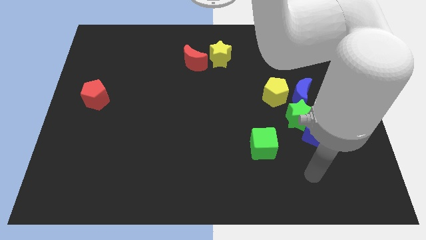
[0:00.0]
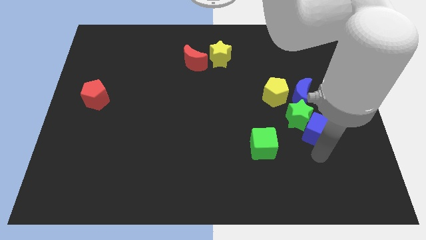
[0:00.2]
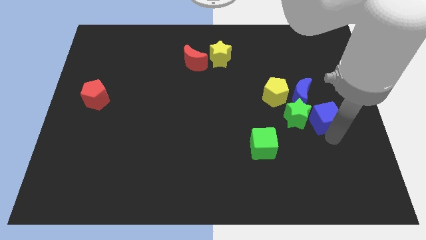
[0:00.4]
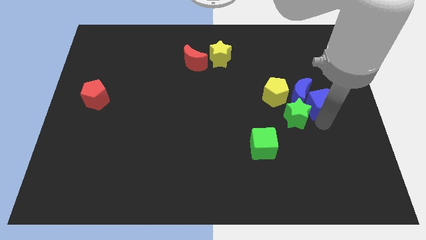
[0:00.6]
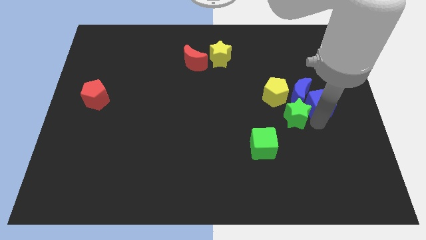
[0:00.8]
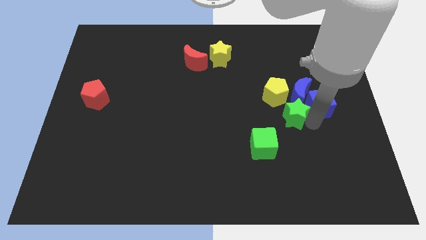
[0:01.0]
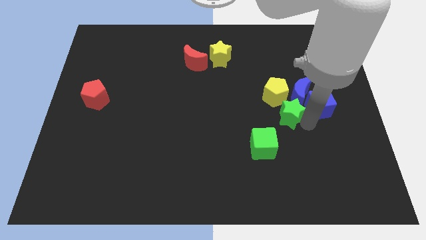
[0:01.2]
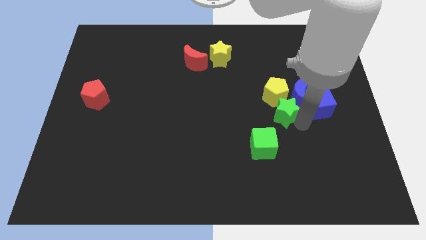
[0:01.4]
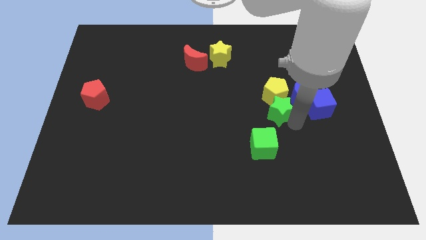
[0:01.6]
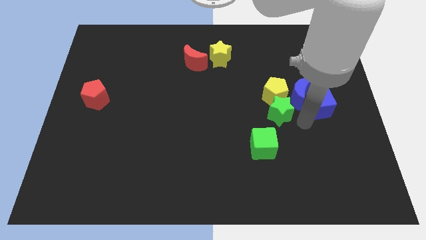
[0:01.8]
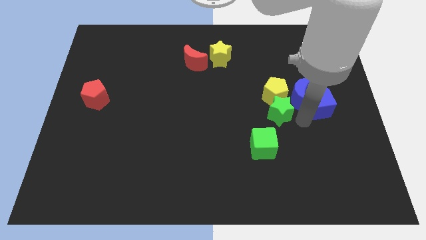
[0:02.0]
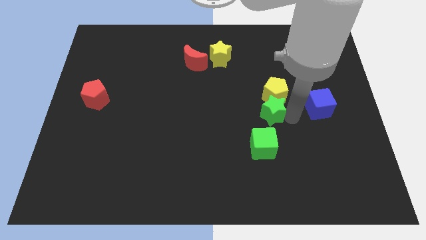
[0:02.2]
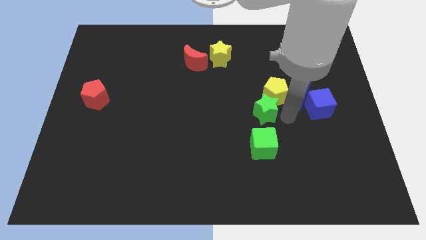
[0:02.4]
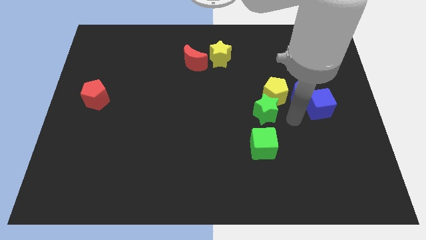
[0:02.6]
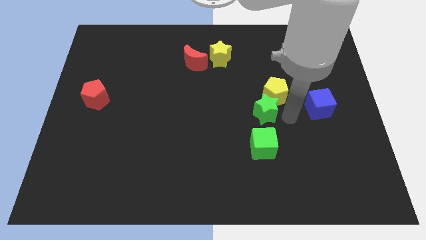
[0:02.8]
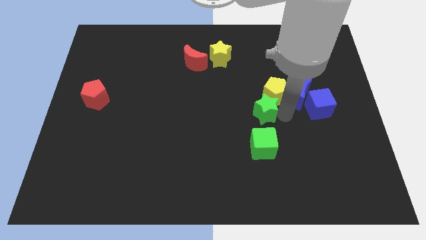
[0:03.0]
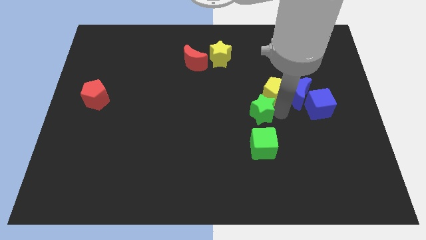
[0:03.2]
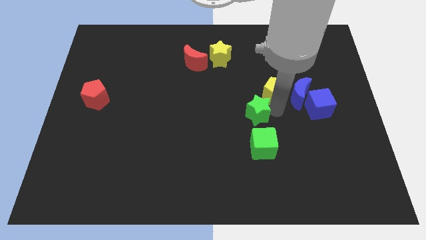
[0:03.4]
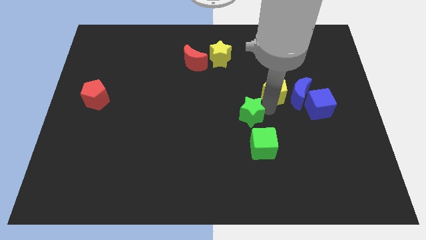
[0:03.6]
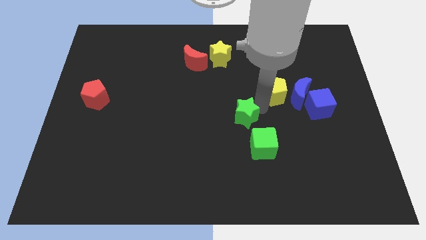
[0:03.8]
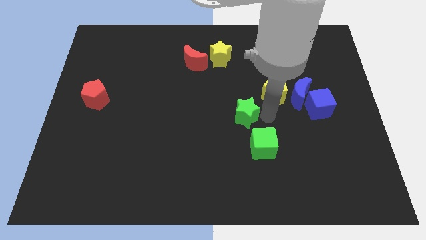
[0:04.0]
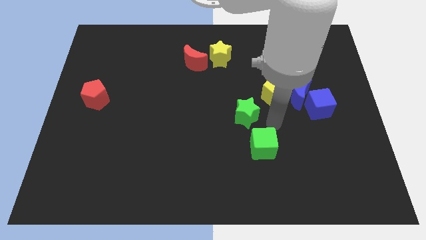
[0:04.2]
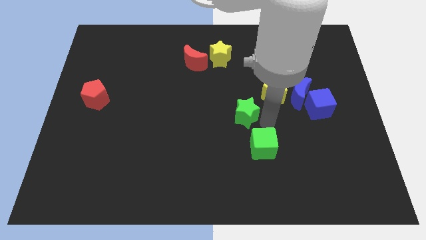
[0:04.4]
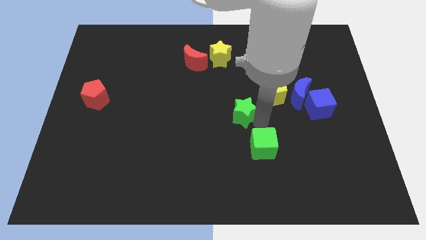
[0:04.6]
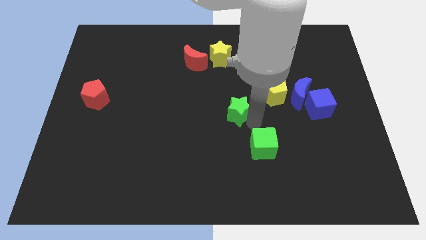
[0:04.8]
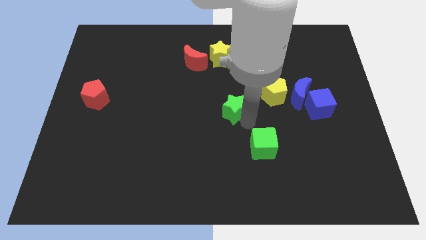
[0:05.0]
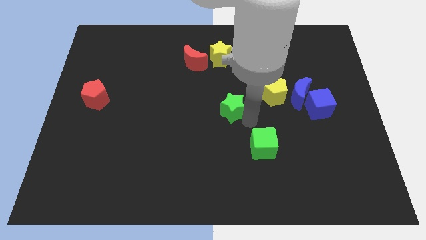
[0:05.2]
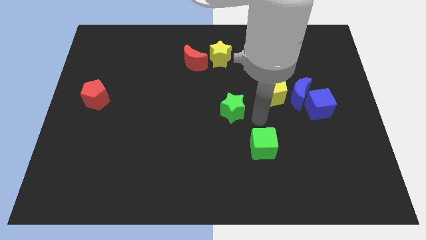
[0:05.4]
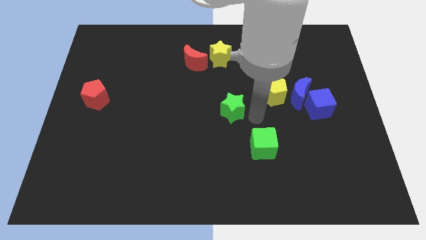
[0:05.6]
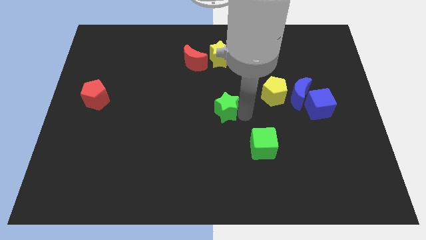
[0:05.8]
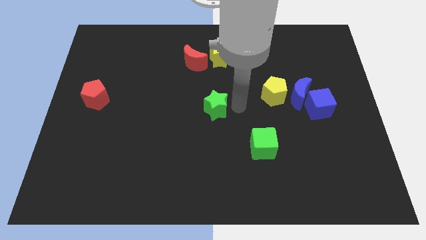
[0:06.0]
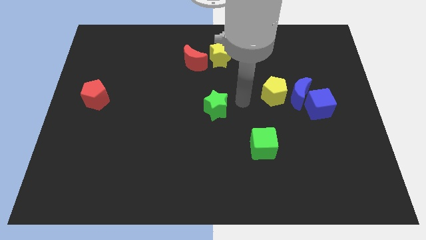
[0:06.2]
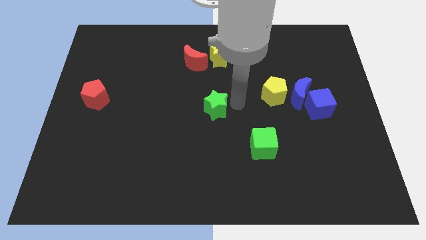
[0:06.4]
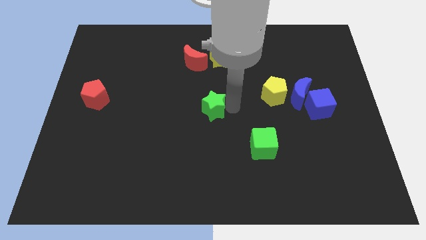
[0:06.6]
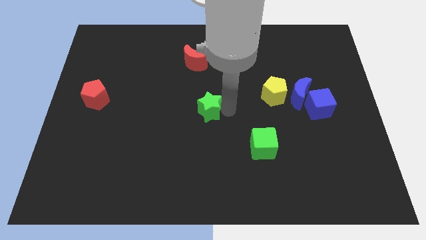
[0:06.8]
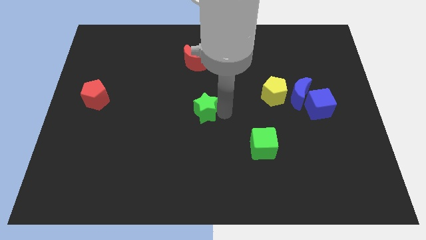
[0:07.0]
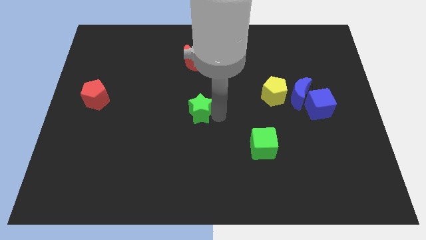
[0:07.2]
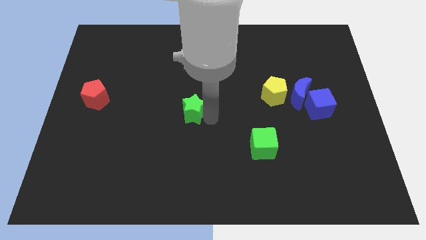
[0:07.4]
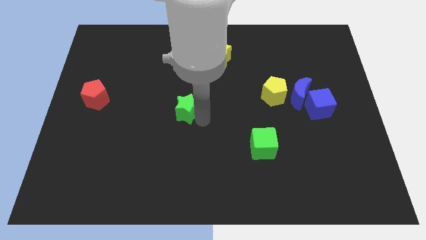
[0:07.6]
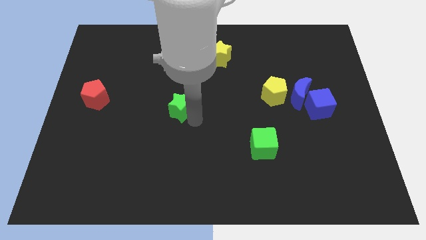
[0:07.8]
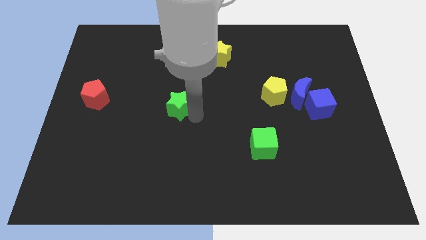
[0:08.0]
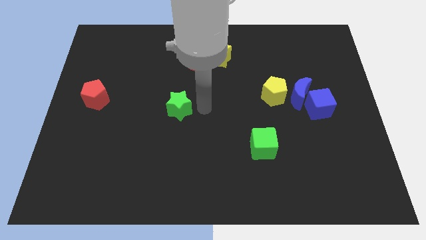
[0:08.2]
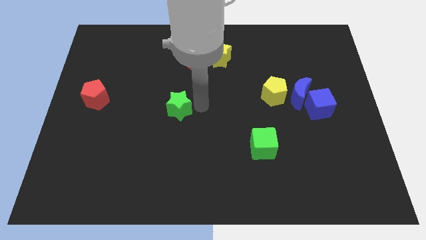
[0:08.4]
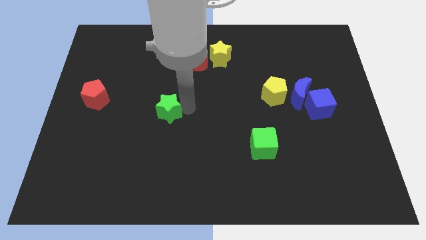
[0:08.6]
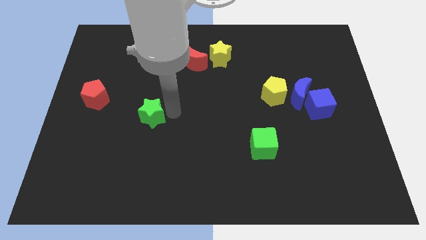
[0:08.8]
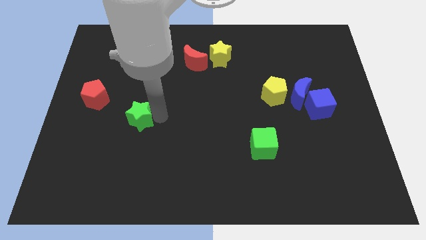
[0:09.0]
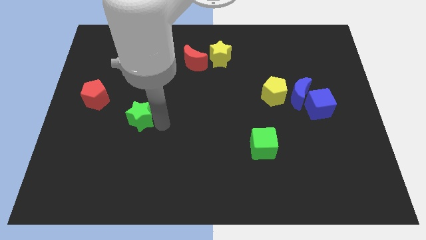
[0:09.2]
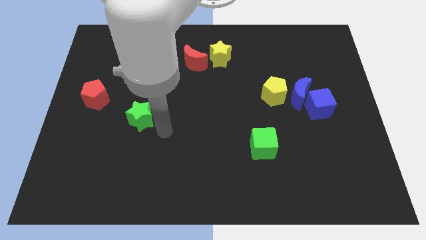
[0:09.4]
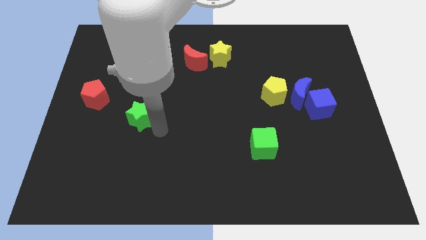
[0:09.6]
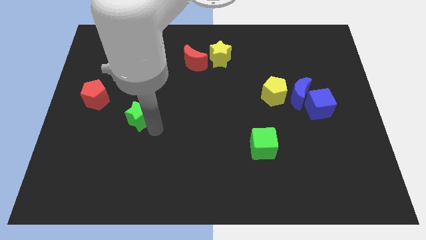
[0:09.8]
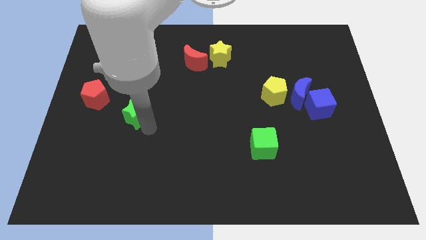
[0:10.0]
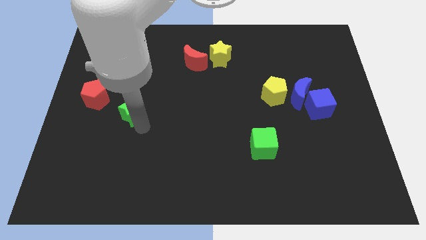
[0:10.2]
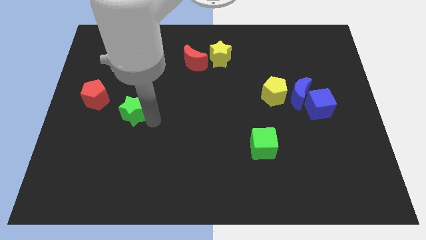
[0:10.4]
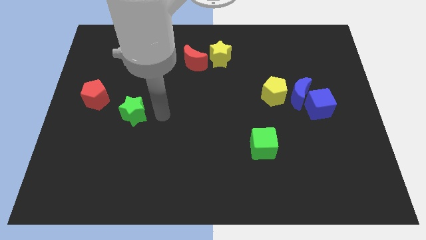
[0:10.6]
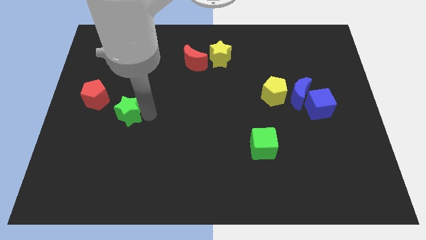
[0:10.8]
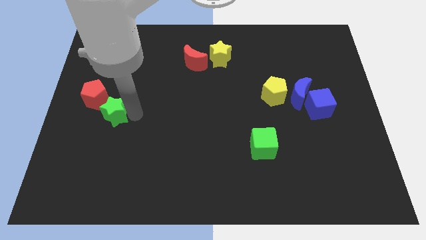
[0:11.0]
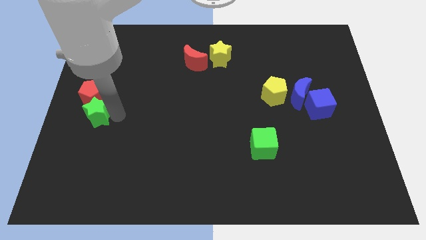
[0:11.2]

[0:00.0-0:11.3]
slide the green star to the center left

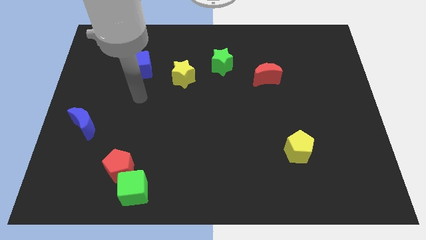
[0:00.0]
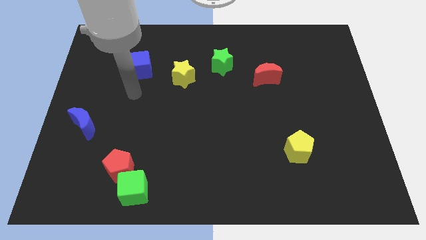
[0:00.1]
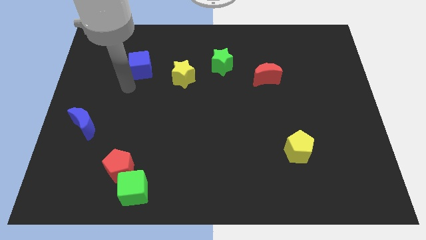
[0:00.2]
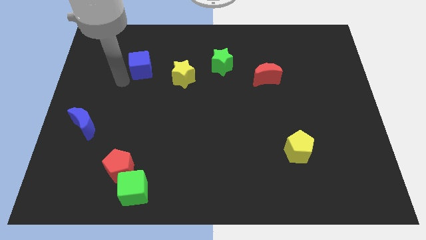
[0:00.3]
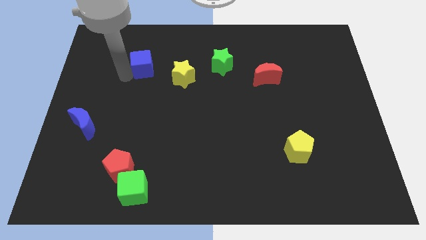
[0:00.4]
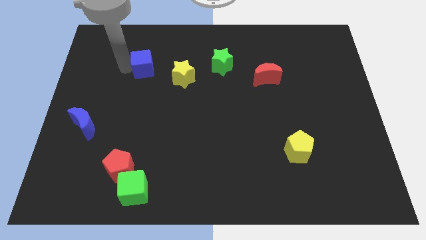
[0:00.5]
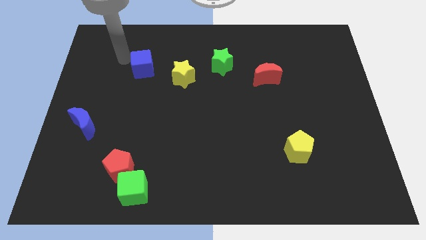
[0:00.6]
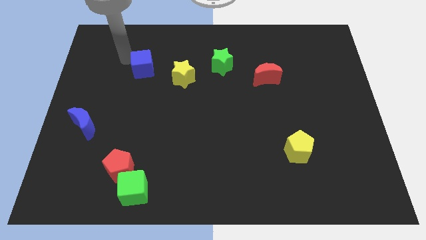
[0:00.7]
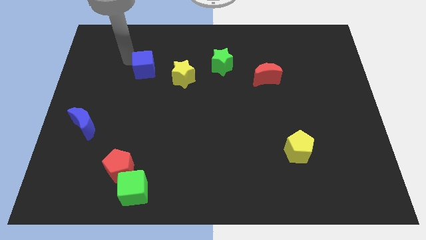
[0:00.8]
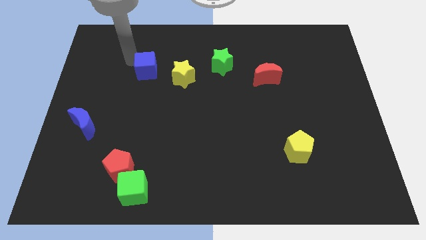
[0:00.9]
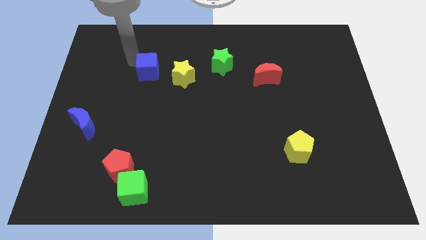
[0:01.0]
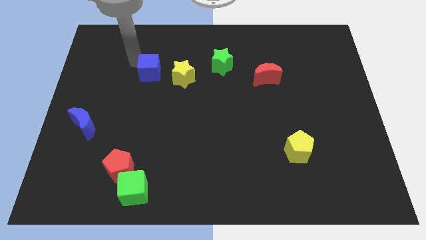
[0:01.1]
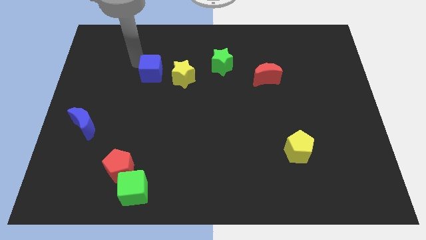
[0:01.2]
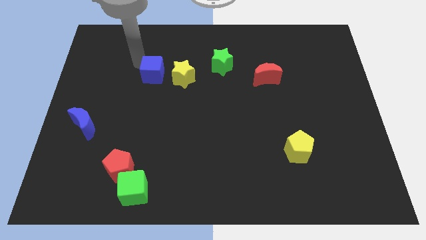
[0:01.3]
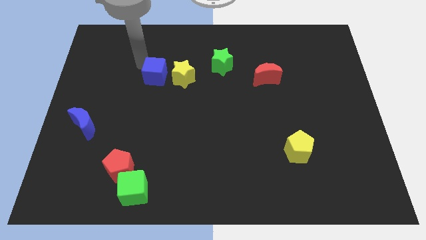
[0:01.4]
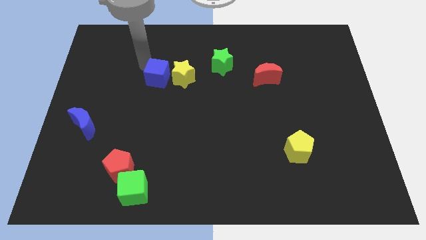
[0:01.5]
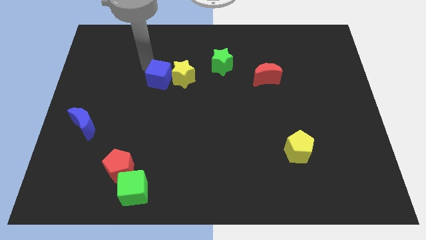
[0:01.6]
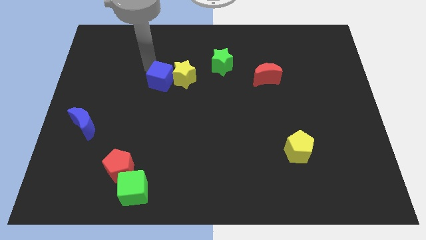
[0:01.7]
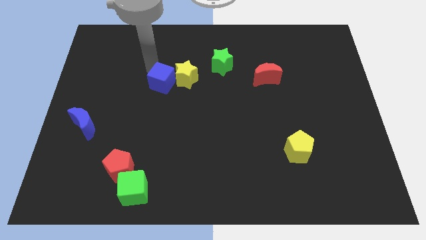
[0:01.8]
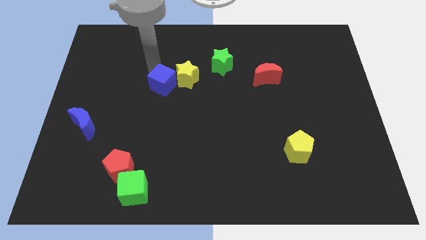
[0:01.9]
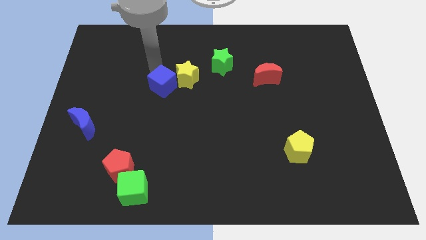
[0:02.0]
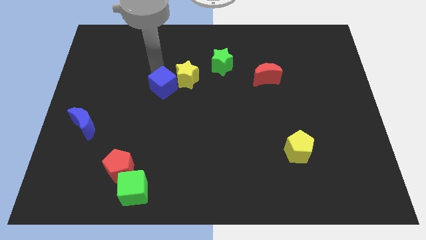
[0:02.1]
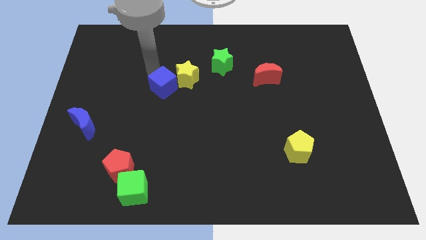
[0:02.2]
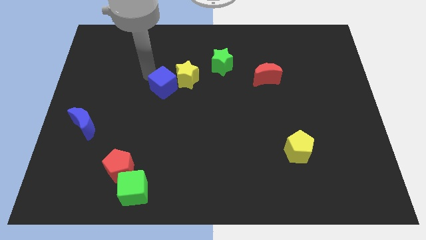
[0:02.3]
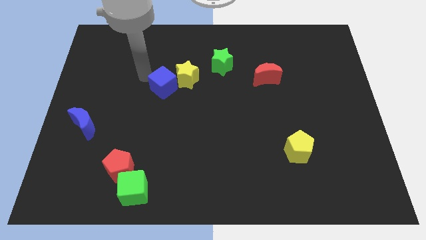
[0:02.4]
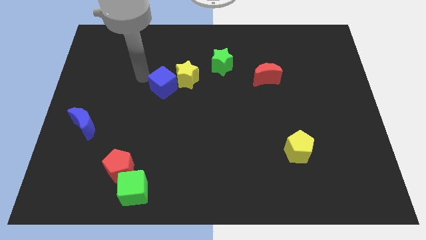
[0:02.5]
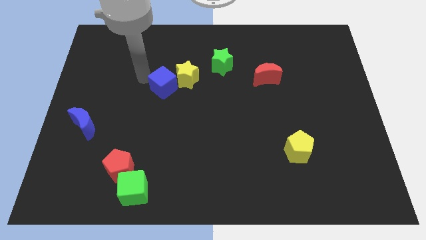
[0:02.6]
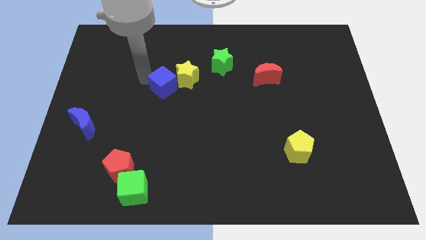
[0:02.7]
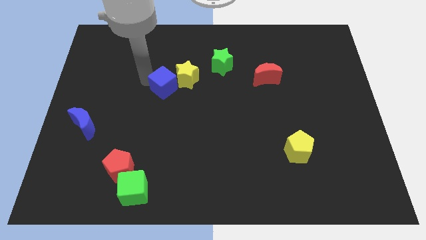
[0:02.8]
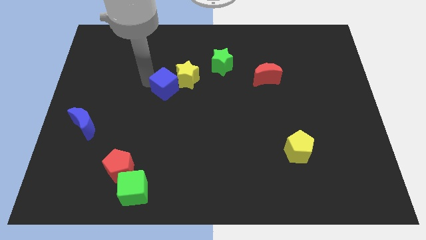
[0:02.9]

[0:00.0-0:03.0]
put the blue cube to the middle
